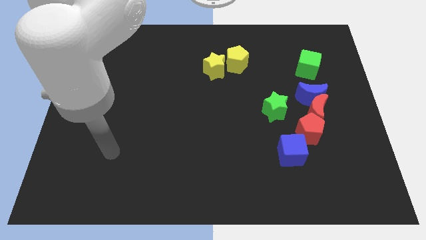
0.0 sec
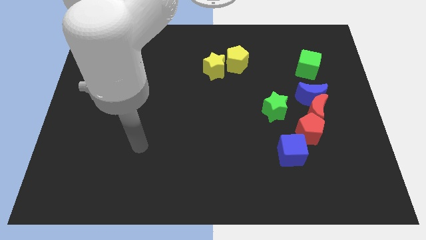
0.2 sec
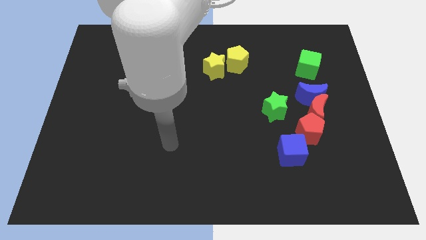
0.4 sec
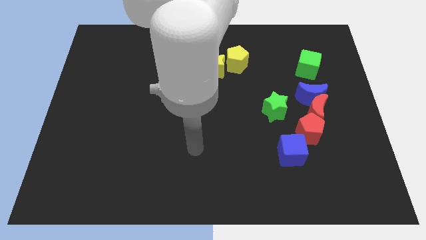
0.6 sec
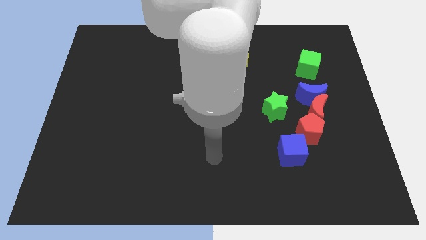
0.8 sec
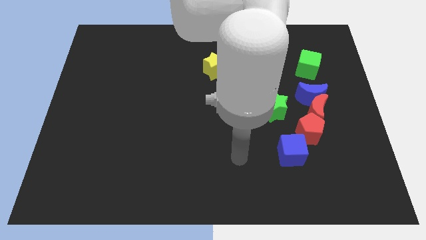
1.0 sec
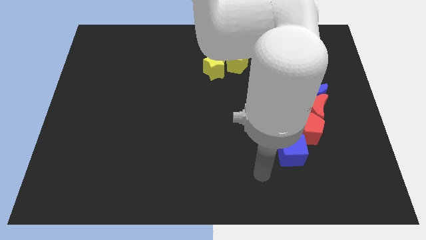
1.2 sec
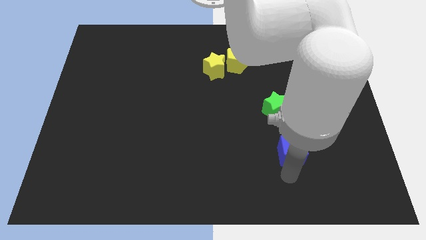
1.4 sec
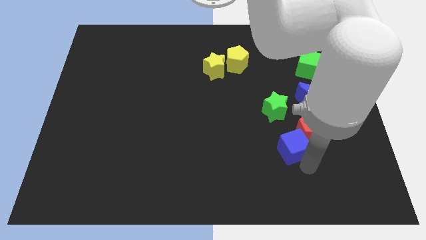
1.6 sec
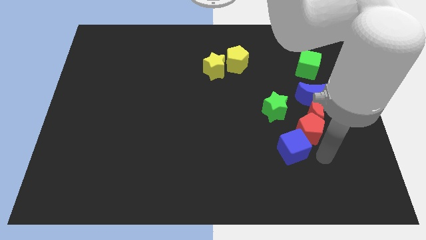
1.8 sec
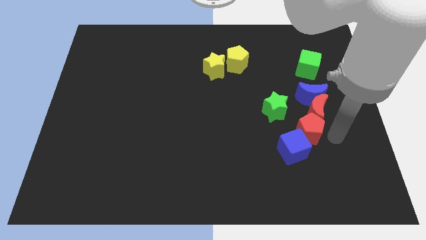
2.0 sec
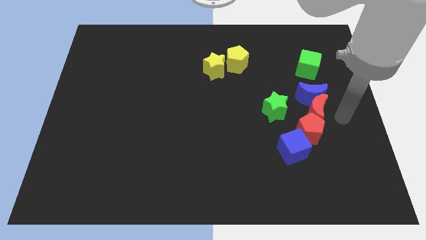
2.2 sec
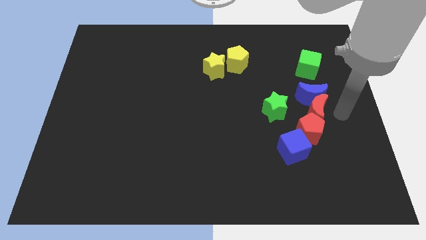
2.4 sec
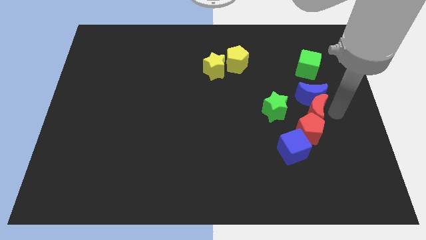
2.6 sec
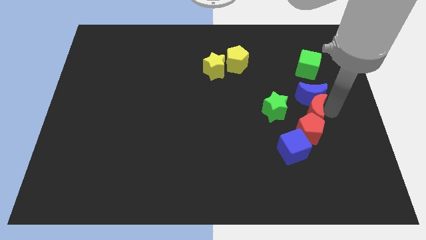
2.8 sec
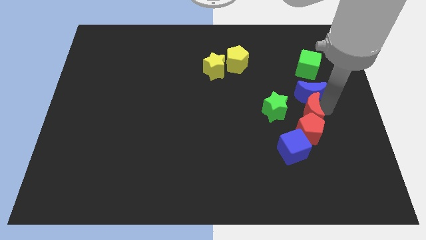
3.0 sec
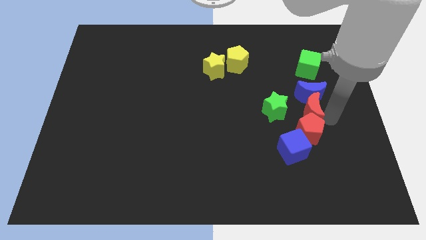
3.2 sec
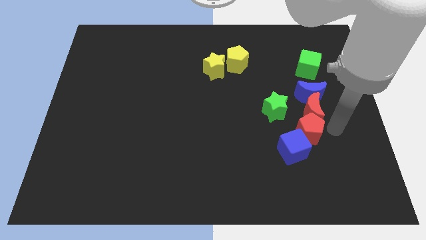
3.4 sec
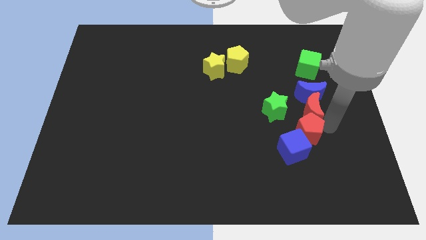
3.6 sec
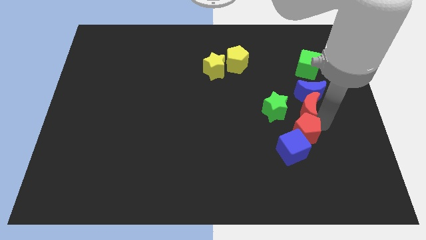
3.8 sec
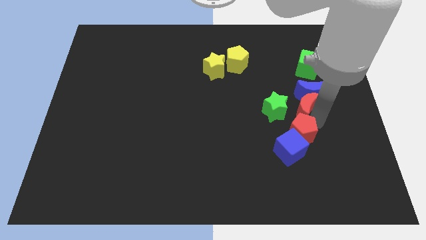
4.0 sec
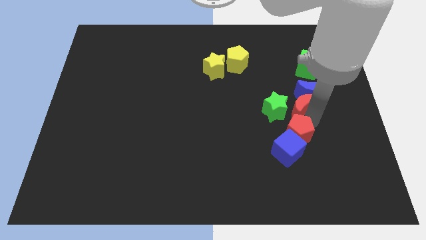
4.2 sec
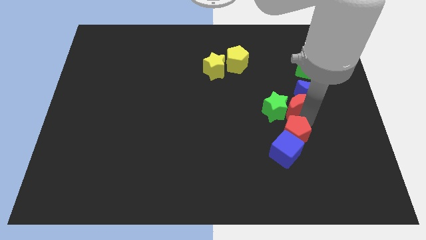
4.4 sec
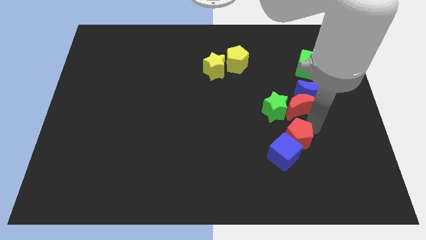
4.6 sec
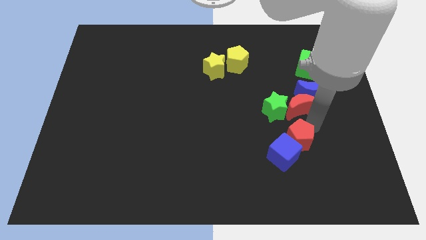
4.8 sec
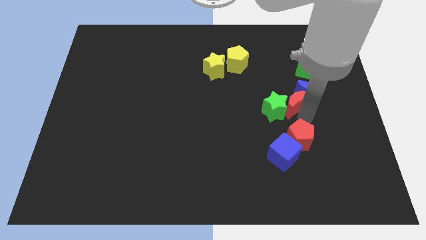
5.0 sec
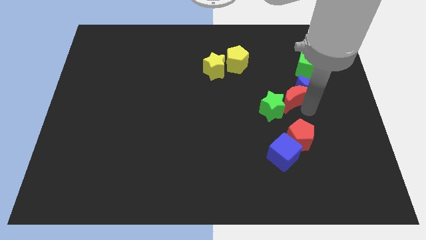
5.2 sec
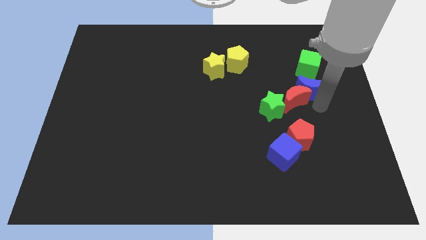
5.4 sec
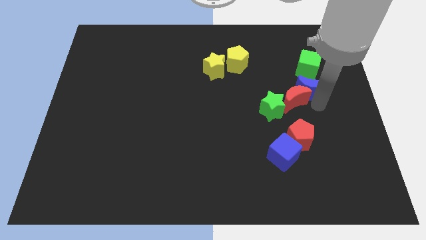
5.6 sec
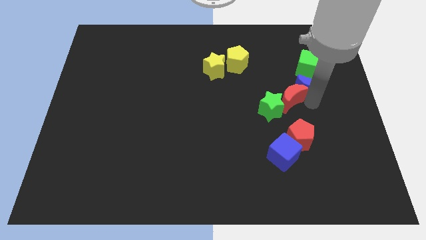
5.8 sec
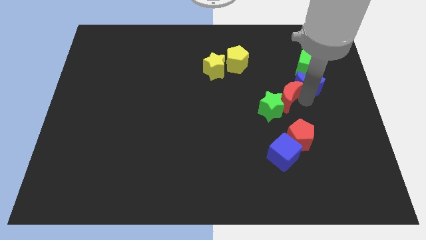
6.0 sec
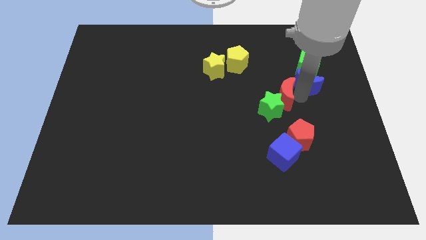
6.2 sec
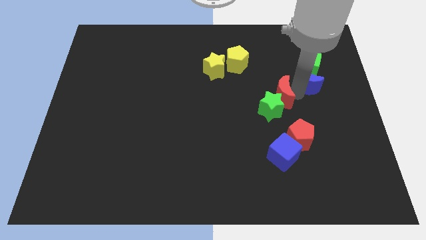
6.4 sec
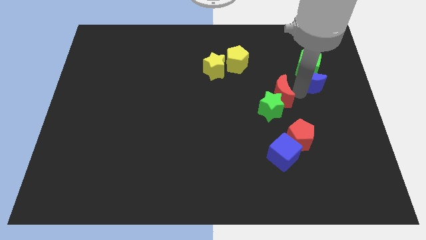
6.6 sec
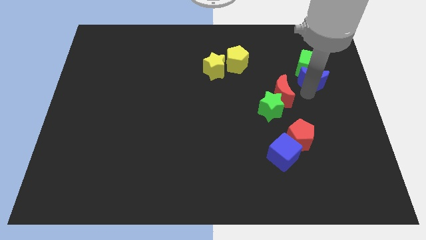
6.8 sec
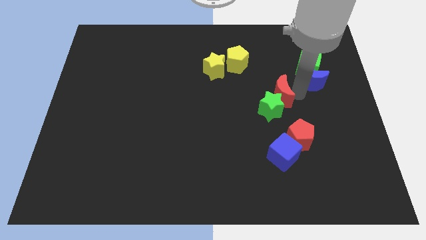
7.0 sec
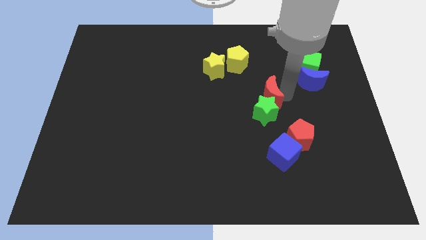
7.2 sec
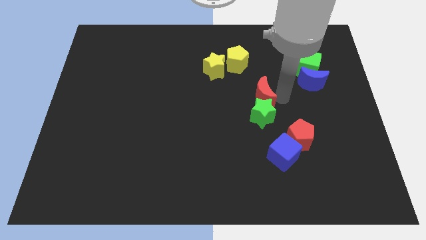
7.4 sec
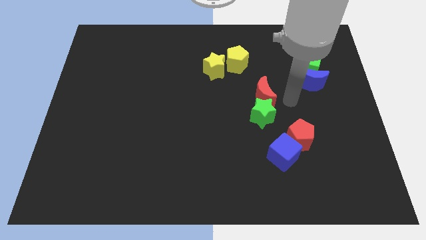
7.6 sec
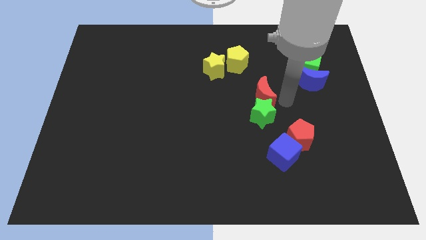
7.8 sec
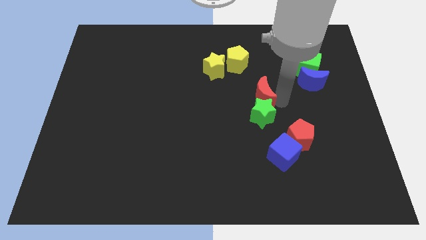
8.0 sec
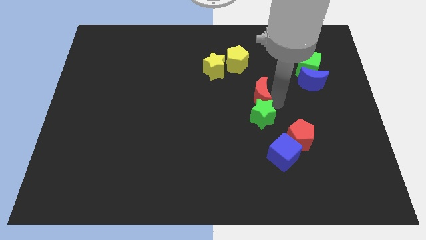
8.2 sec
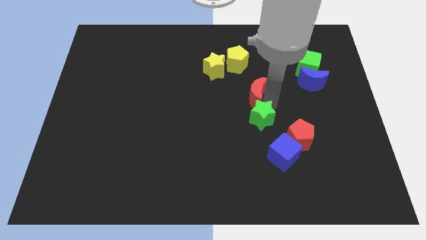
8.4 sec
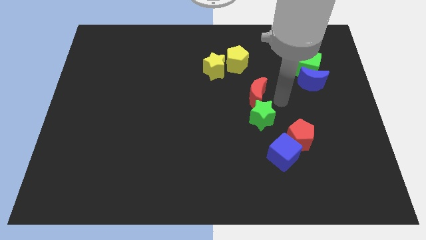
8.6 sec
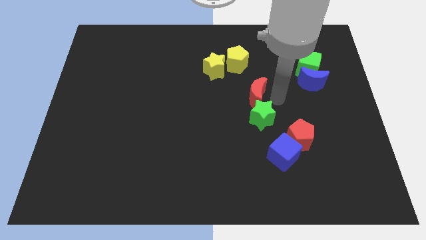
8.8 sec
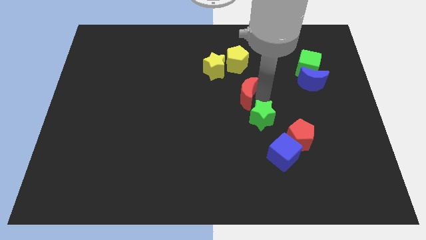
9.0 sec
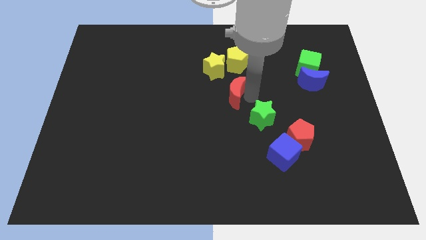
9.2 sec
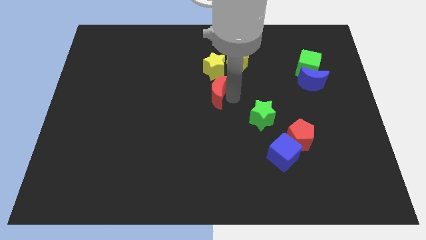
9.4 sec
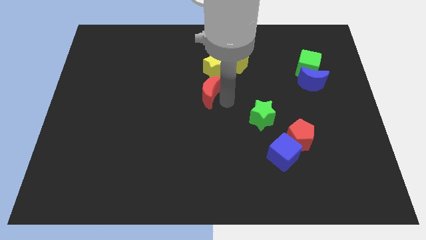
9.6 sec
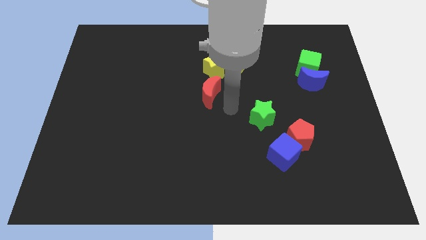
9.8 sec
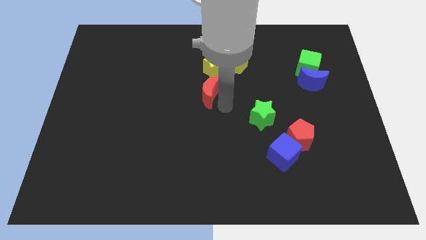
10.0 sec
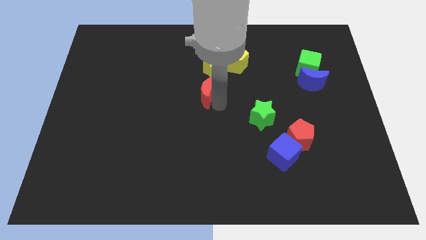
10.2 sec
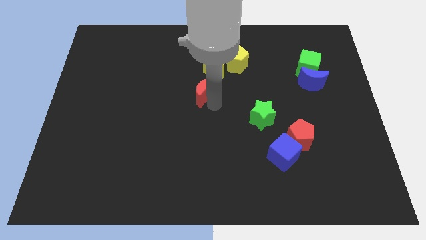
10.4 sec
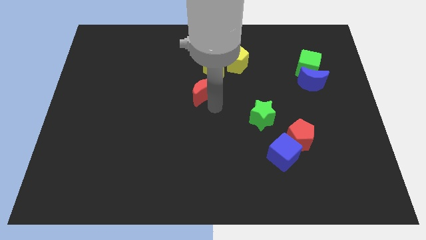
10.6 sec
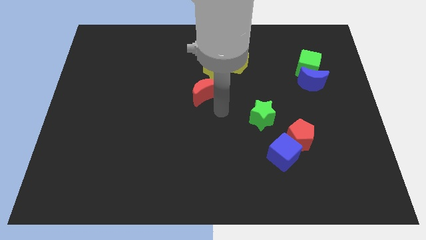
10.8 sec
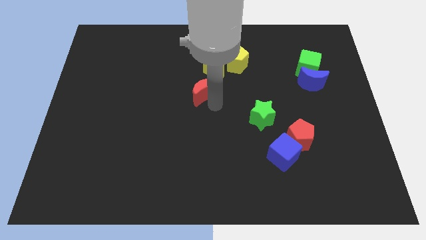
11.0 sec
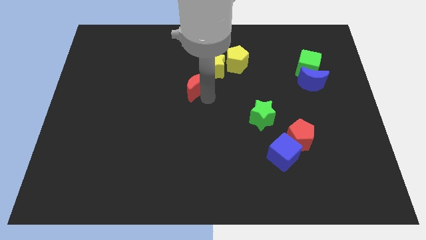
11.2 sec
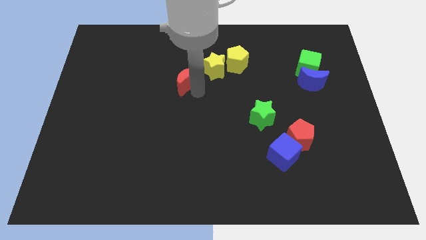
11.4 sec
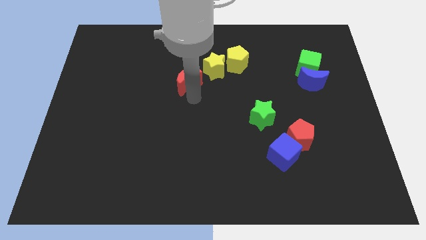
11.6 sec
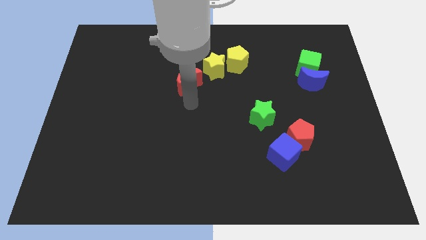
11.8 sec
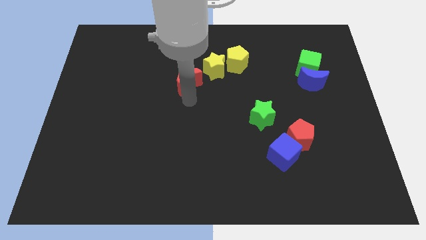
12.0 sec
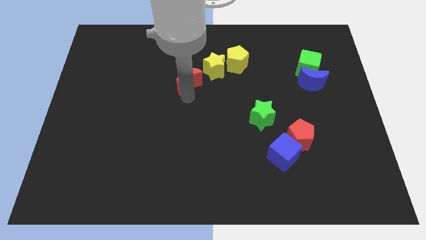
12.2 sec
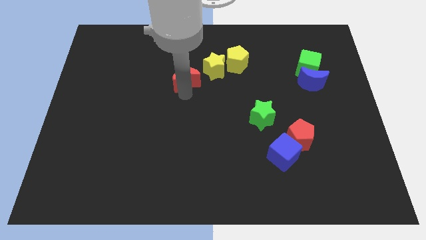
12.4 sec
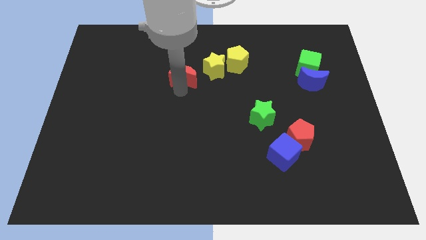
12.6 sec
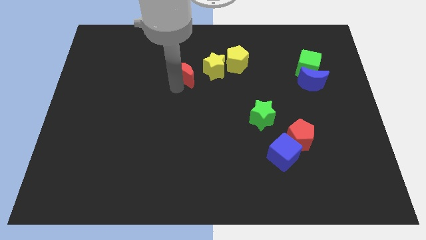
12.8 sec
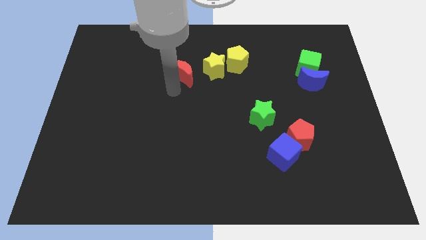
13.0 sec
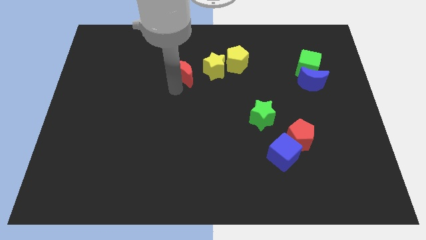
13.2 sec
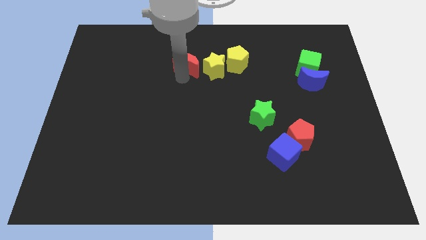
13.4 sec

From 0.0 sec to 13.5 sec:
move the red moon to the top left of the yellow star

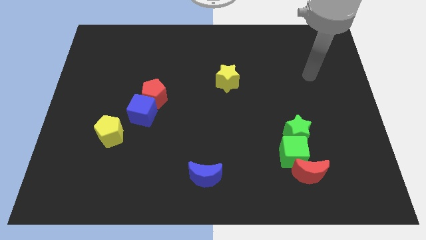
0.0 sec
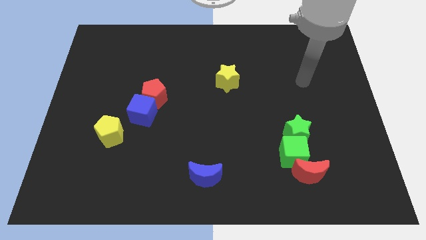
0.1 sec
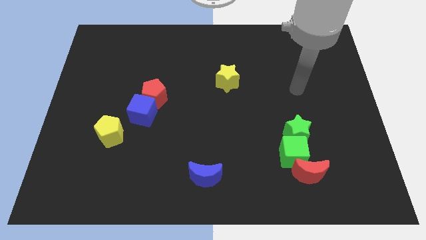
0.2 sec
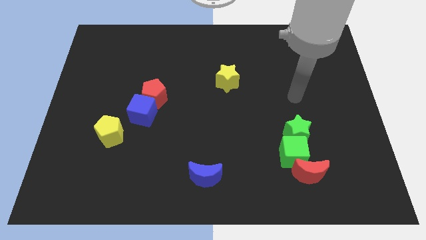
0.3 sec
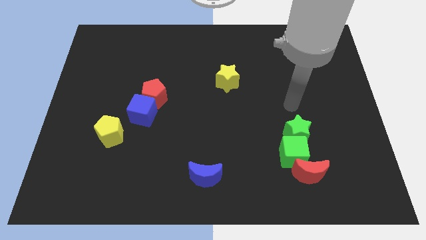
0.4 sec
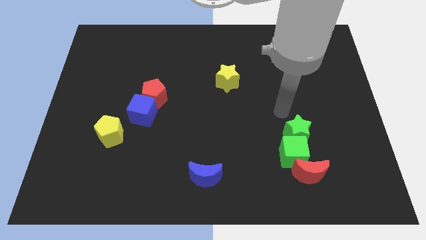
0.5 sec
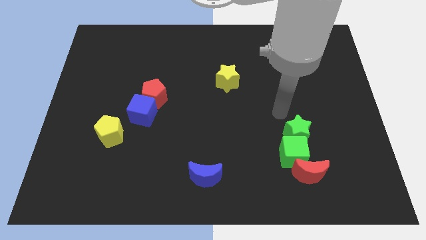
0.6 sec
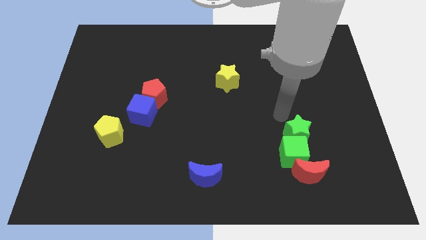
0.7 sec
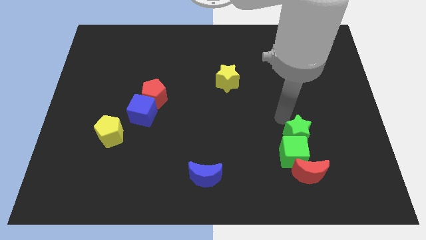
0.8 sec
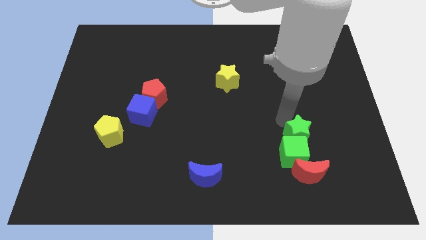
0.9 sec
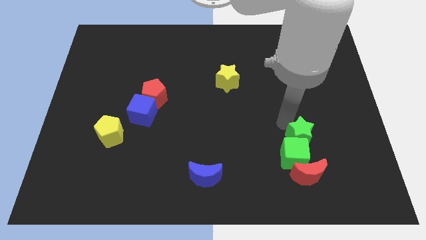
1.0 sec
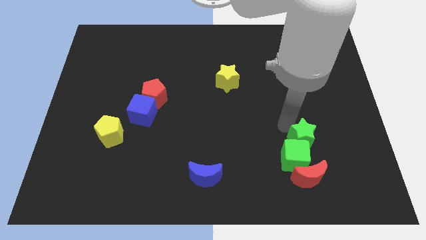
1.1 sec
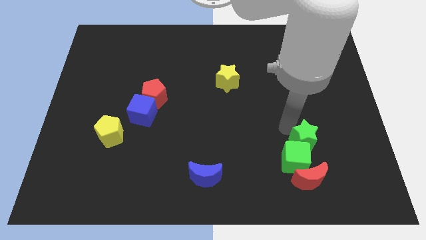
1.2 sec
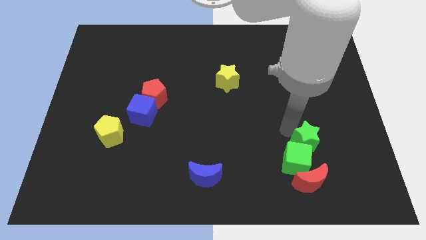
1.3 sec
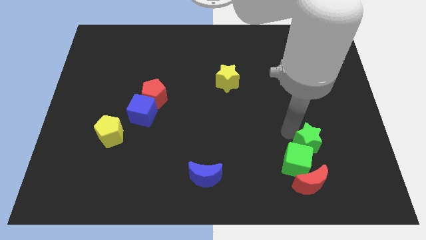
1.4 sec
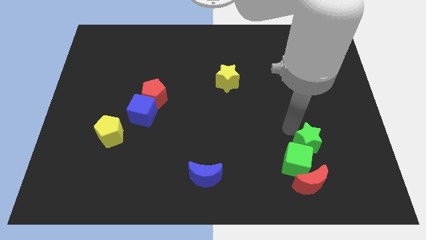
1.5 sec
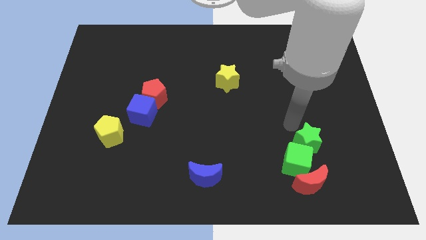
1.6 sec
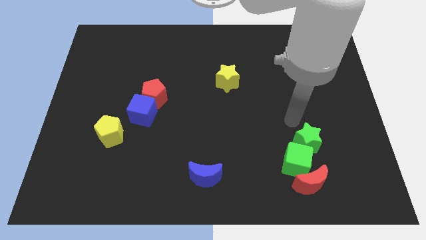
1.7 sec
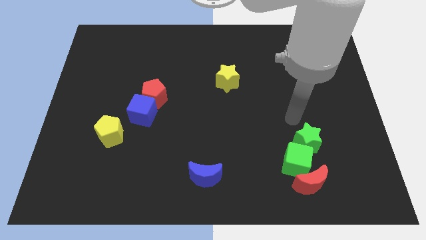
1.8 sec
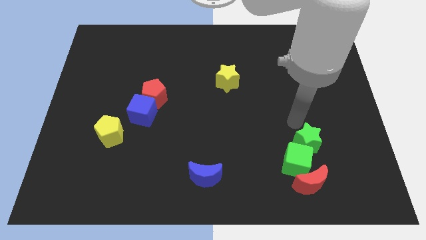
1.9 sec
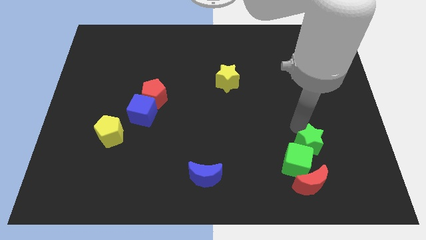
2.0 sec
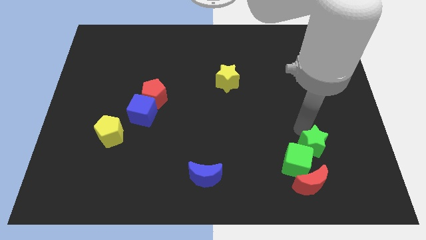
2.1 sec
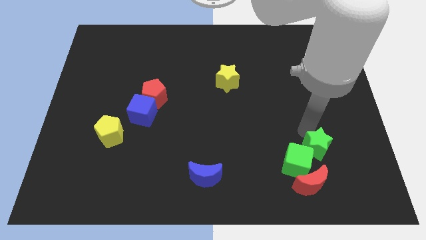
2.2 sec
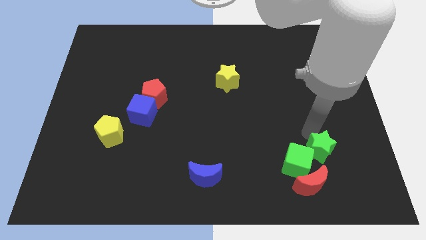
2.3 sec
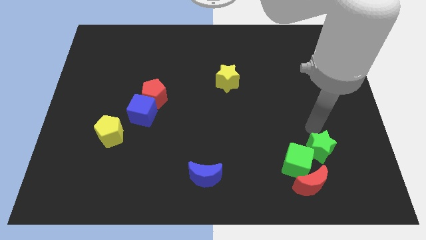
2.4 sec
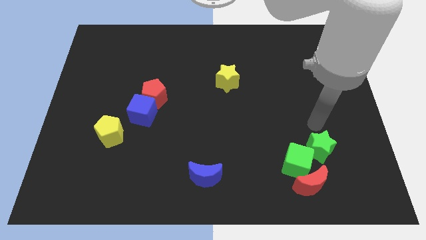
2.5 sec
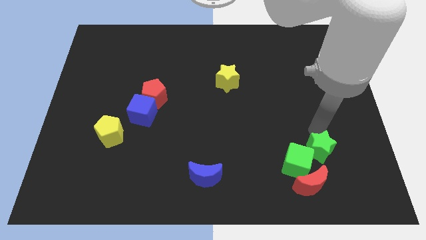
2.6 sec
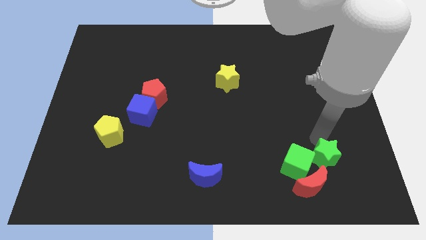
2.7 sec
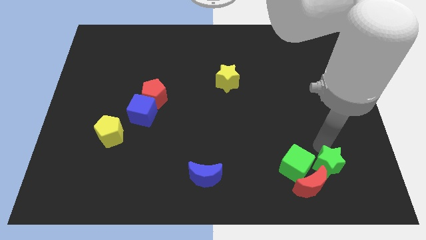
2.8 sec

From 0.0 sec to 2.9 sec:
move the green star to the bottom right side of the green cube
